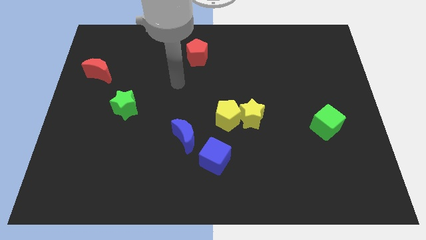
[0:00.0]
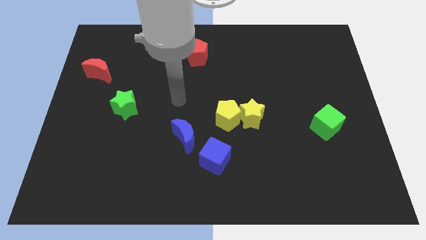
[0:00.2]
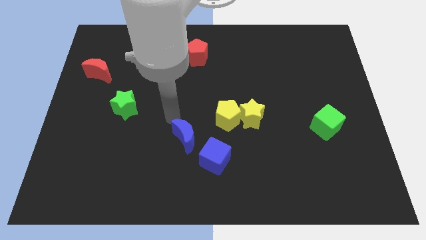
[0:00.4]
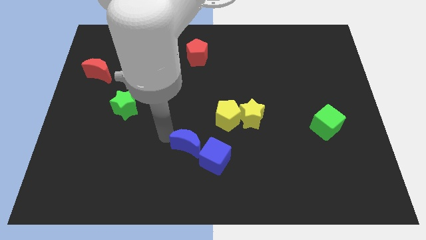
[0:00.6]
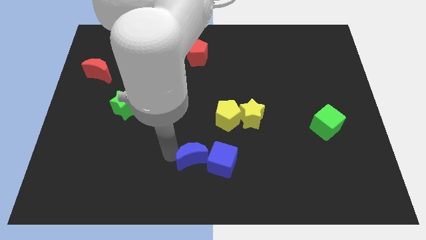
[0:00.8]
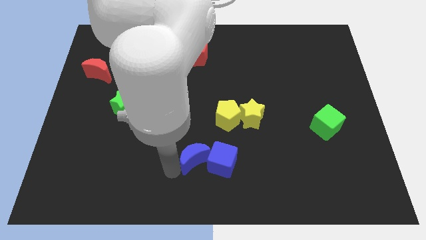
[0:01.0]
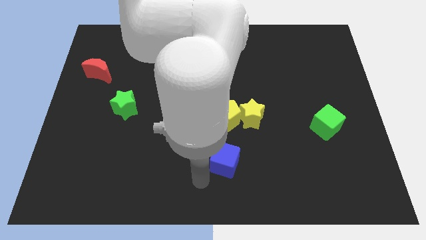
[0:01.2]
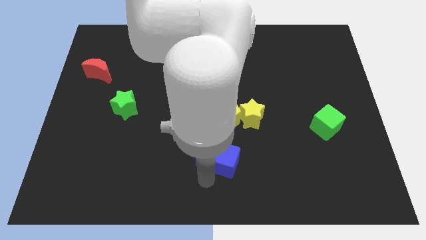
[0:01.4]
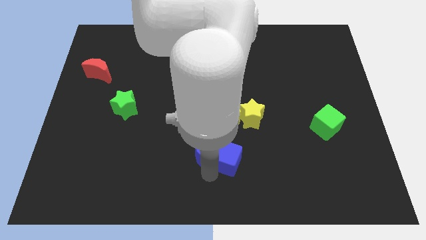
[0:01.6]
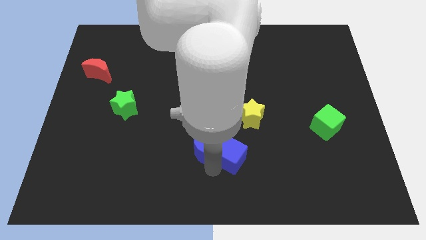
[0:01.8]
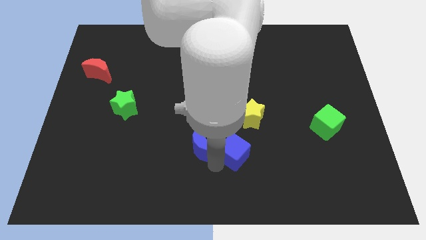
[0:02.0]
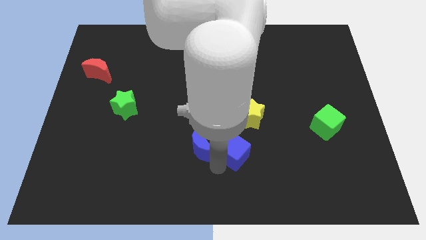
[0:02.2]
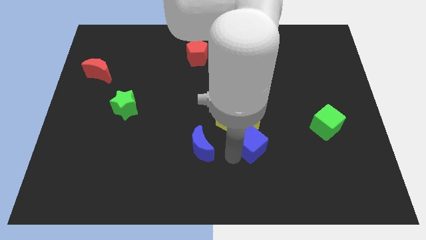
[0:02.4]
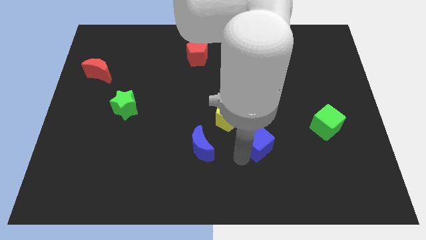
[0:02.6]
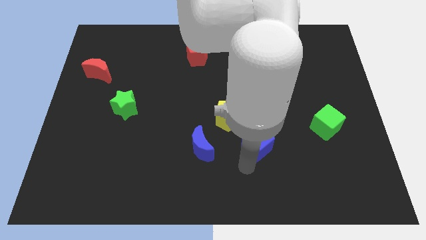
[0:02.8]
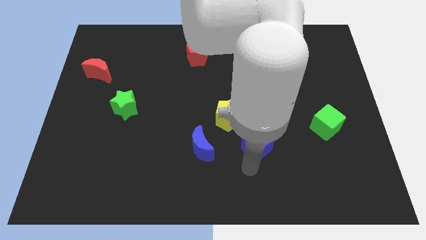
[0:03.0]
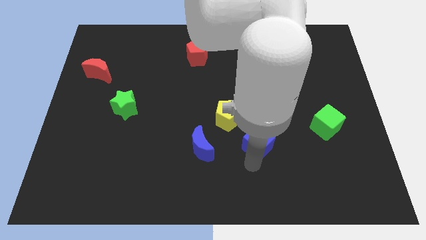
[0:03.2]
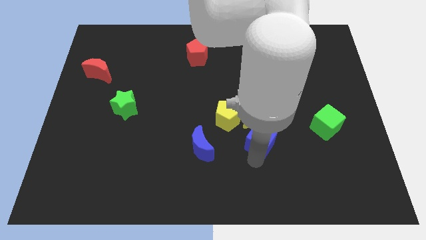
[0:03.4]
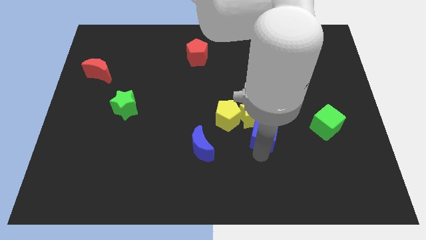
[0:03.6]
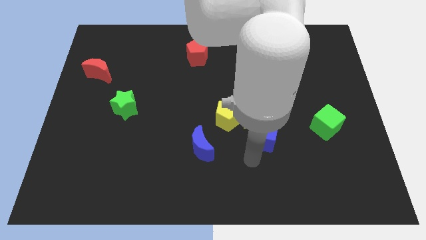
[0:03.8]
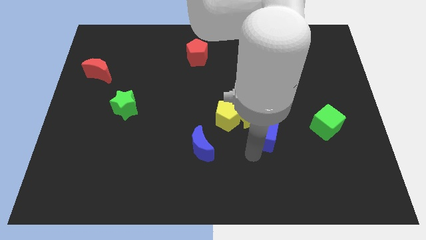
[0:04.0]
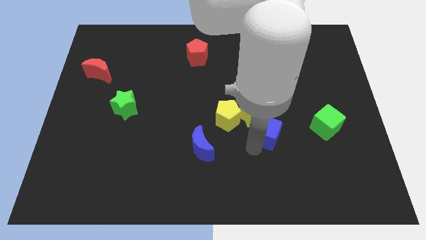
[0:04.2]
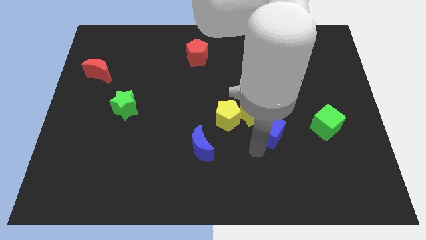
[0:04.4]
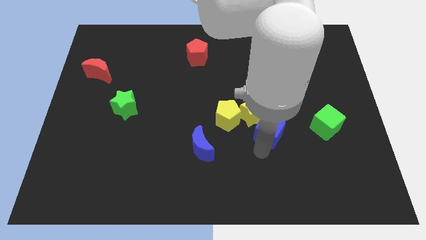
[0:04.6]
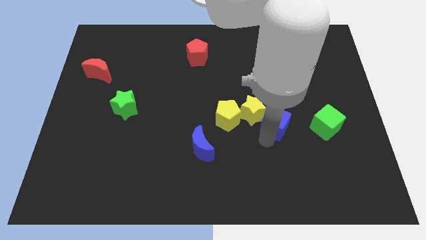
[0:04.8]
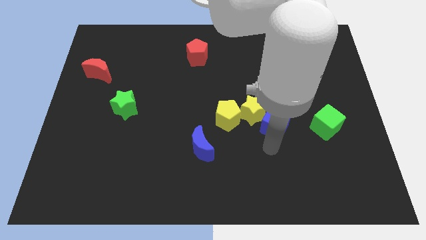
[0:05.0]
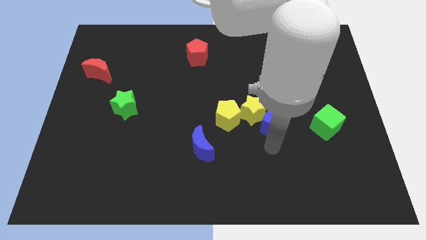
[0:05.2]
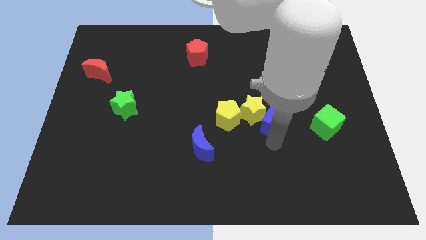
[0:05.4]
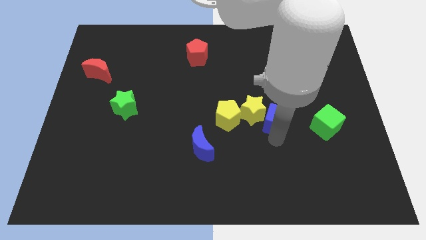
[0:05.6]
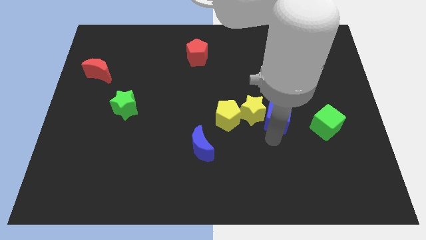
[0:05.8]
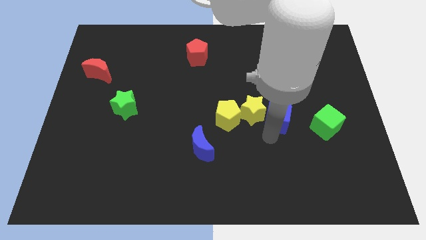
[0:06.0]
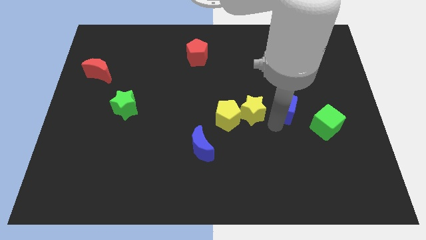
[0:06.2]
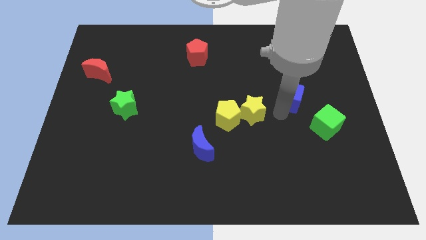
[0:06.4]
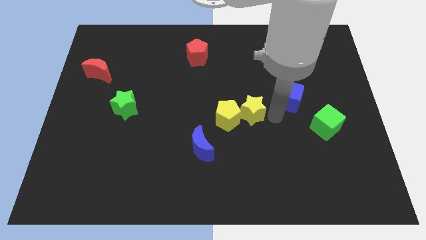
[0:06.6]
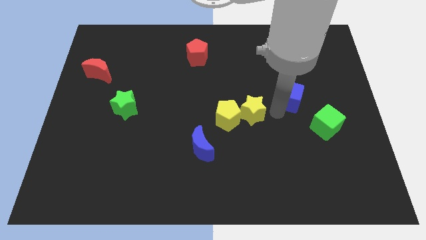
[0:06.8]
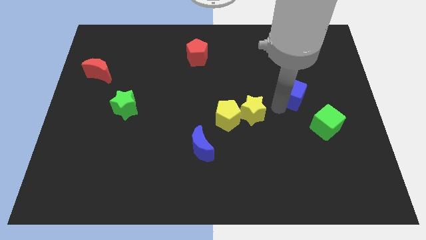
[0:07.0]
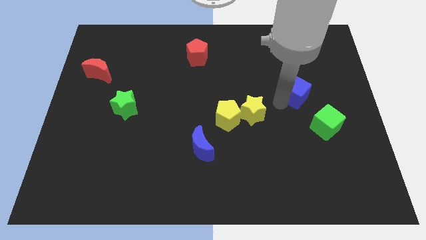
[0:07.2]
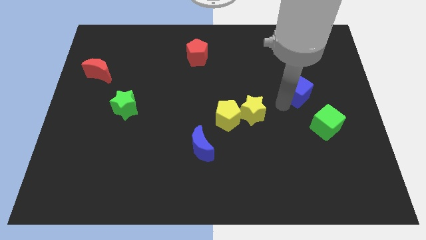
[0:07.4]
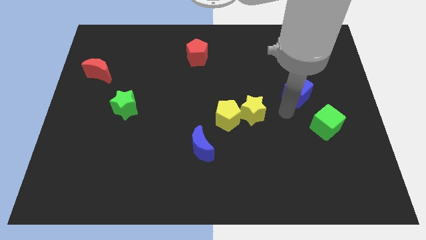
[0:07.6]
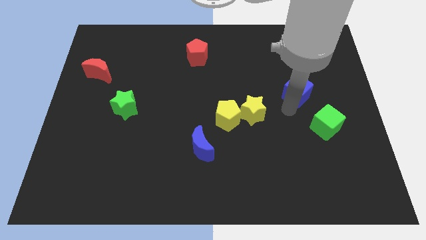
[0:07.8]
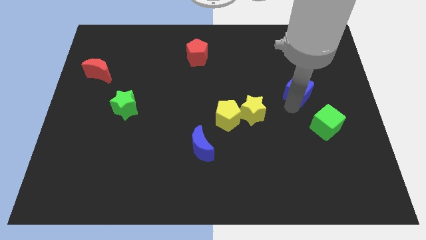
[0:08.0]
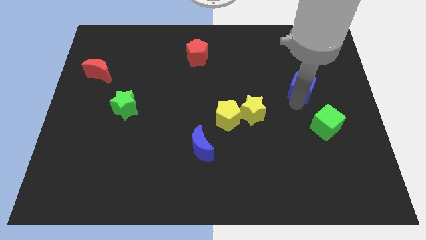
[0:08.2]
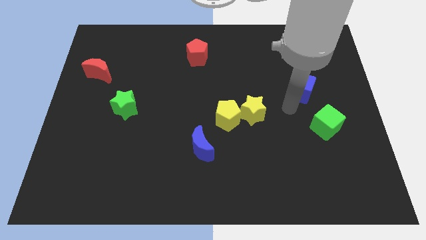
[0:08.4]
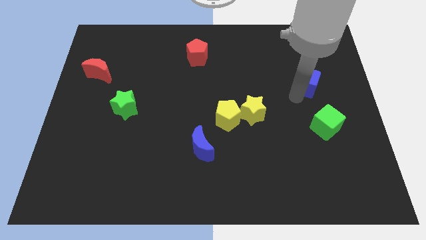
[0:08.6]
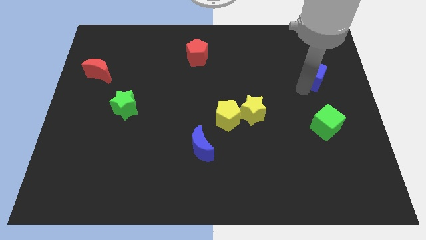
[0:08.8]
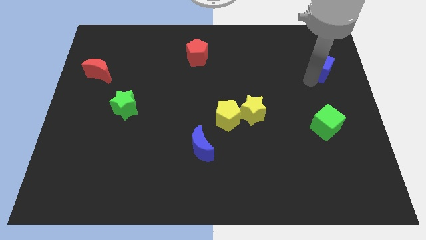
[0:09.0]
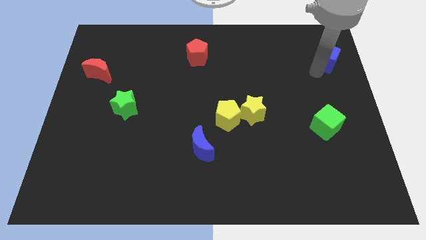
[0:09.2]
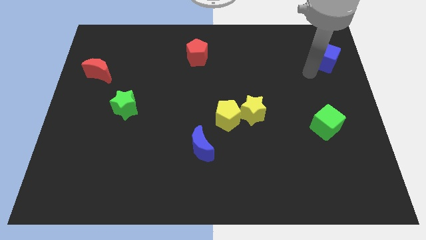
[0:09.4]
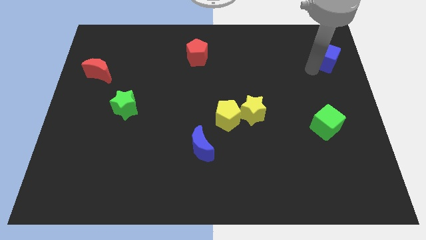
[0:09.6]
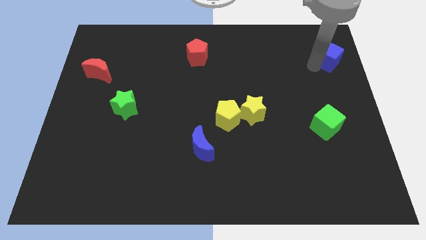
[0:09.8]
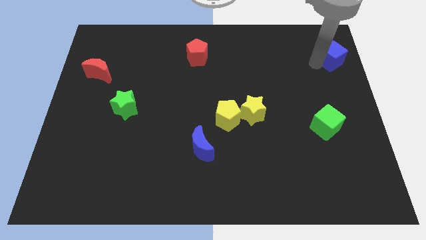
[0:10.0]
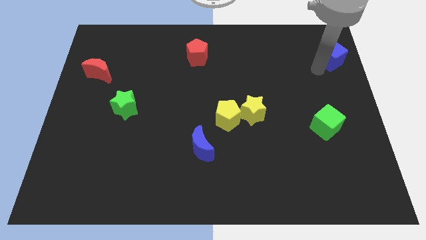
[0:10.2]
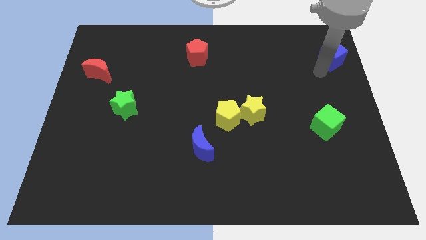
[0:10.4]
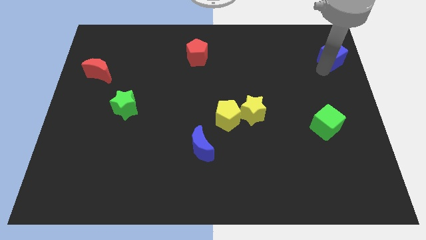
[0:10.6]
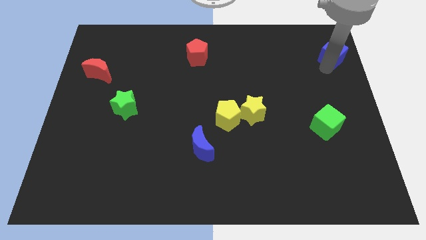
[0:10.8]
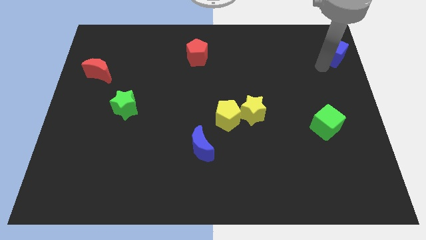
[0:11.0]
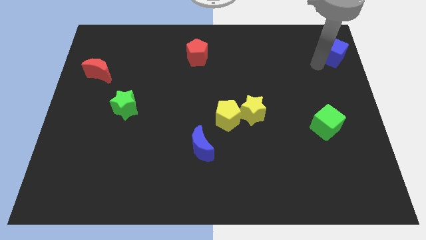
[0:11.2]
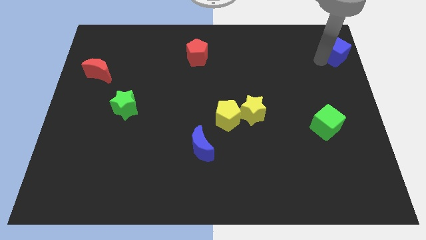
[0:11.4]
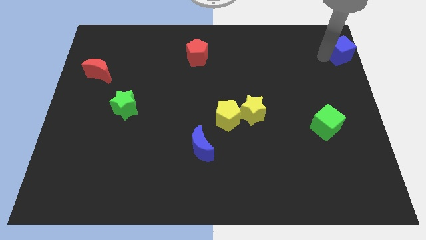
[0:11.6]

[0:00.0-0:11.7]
put the blue cube to the upper right corner

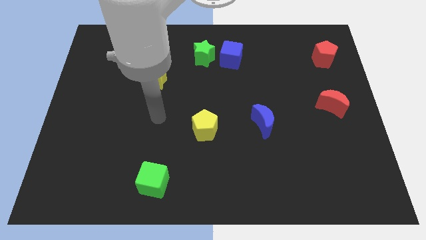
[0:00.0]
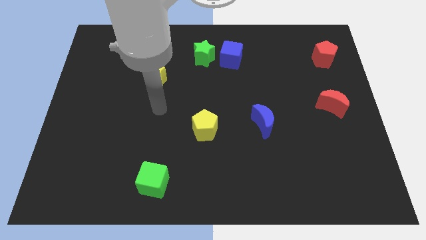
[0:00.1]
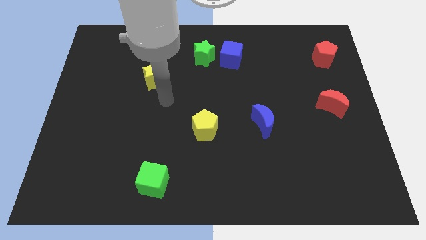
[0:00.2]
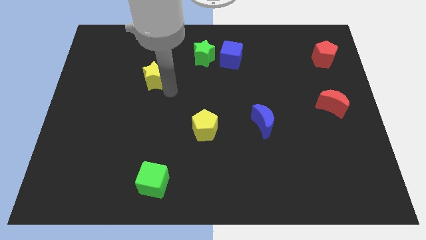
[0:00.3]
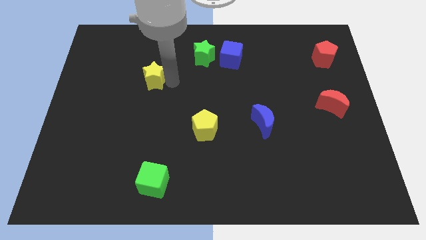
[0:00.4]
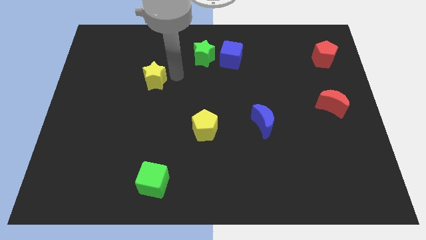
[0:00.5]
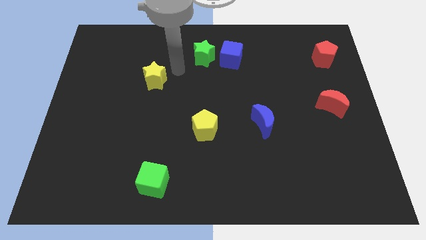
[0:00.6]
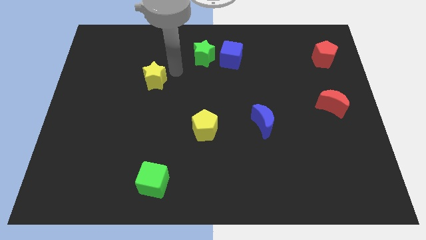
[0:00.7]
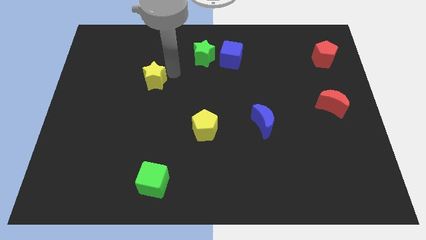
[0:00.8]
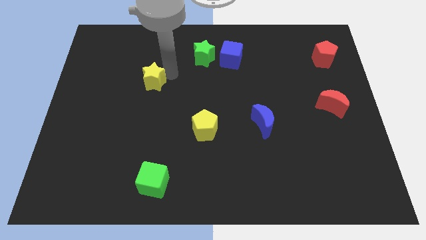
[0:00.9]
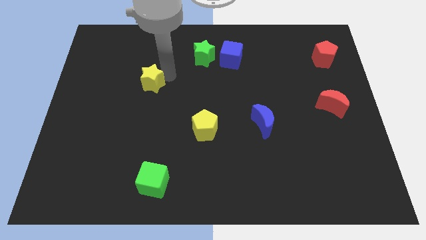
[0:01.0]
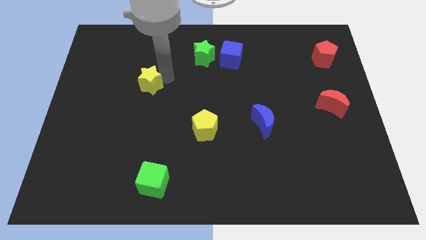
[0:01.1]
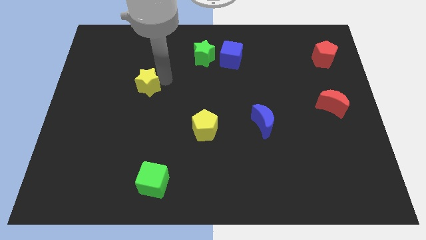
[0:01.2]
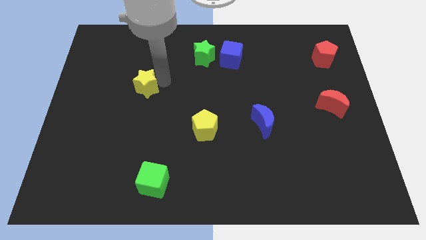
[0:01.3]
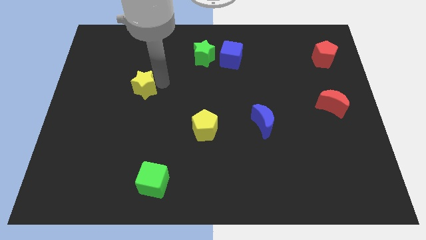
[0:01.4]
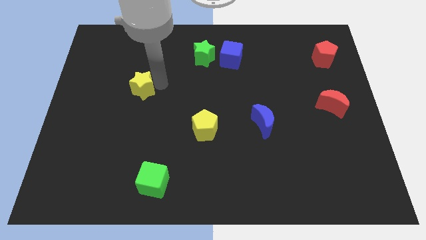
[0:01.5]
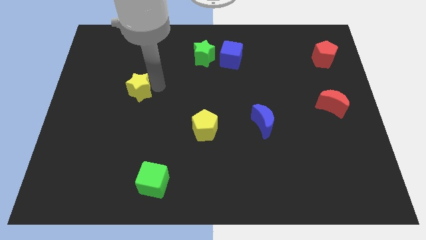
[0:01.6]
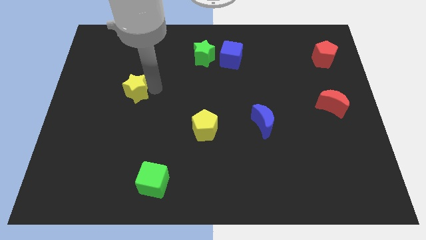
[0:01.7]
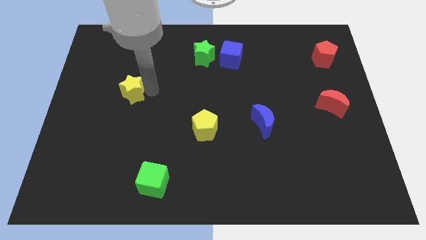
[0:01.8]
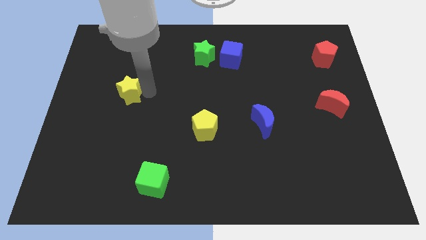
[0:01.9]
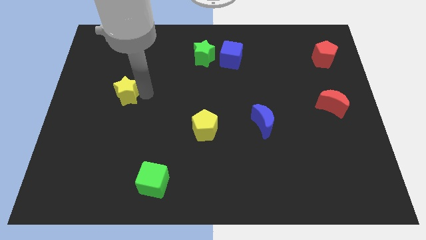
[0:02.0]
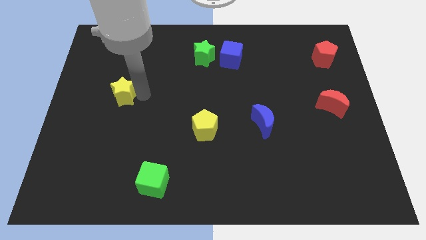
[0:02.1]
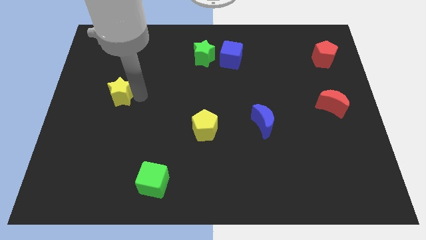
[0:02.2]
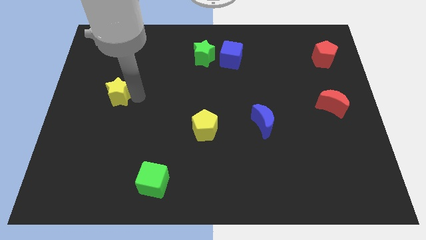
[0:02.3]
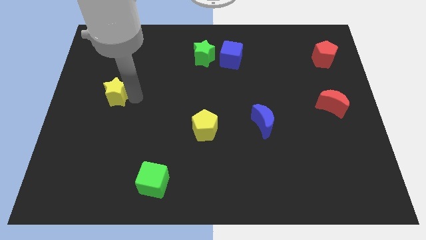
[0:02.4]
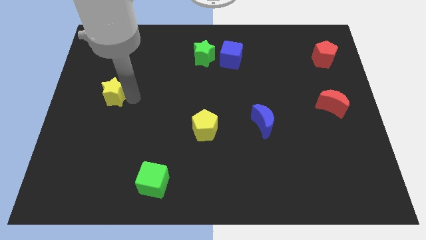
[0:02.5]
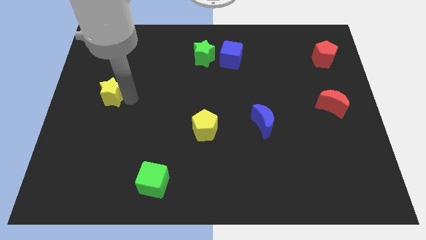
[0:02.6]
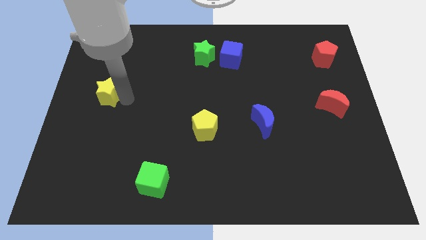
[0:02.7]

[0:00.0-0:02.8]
push the yellow star to the center left
